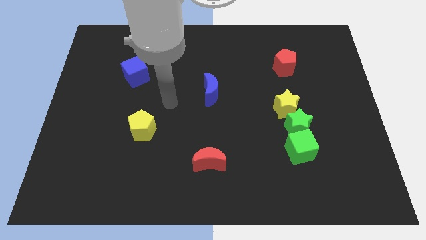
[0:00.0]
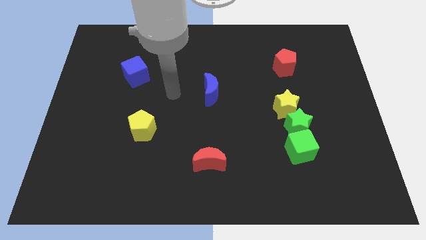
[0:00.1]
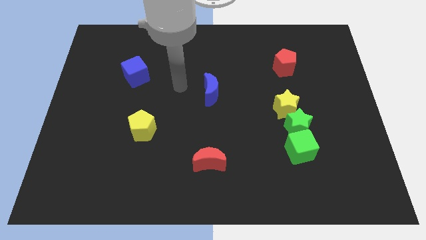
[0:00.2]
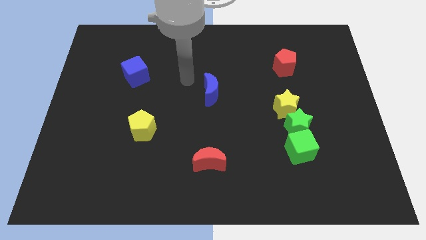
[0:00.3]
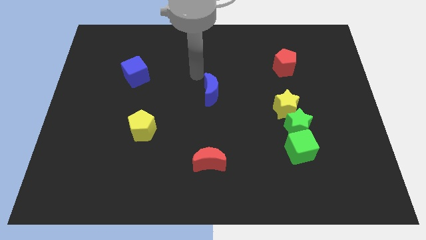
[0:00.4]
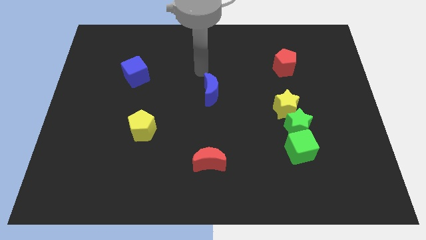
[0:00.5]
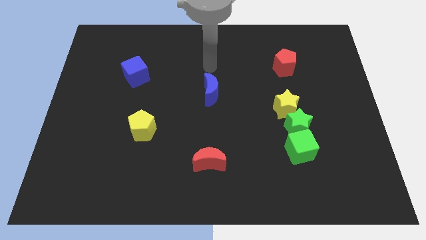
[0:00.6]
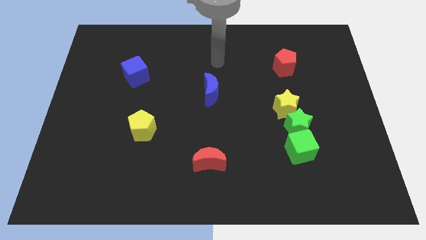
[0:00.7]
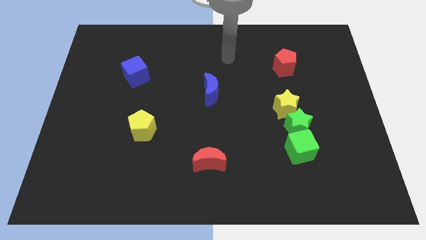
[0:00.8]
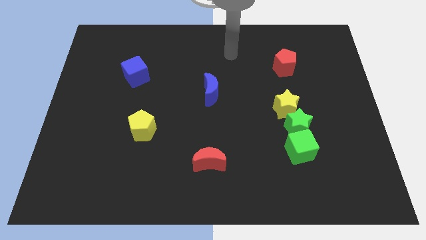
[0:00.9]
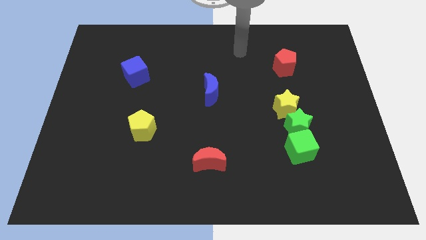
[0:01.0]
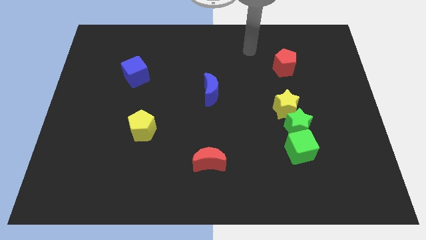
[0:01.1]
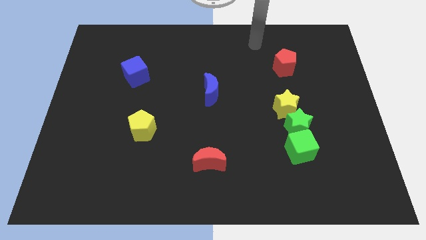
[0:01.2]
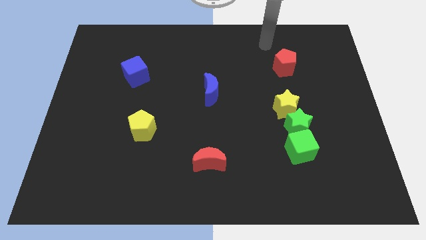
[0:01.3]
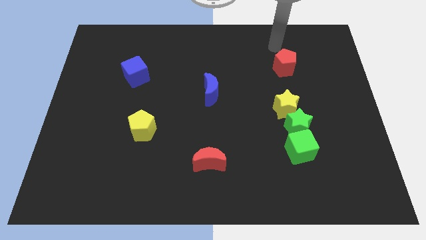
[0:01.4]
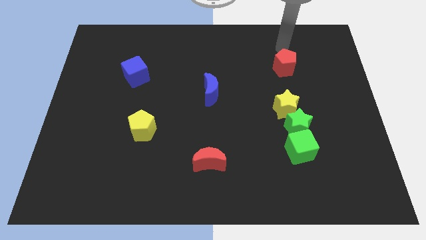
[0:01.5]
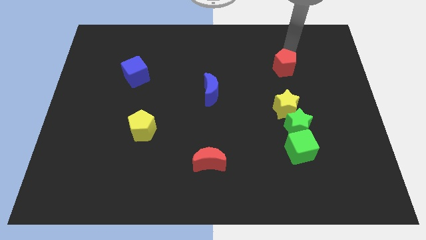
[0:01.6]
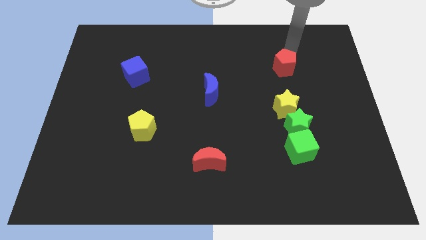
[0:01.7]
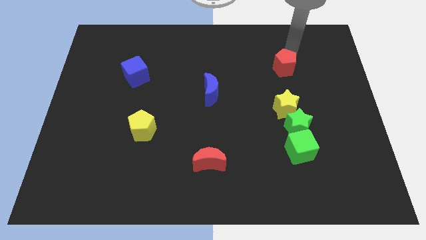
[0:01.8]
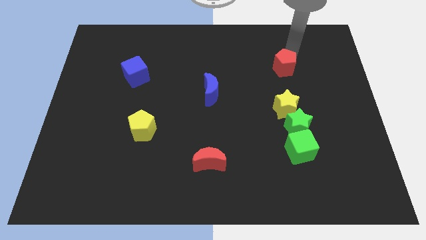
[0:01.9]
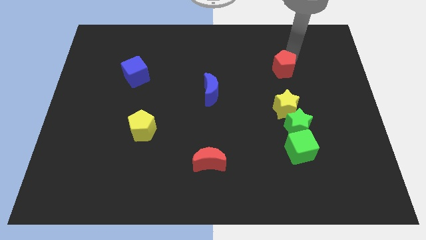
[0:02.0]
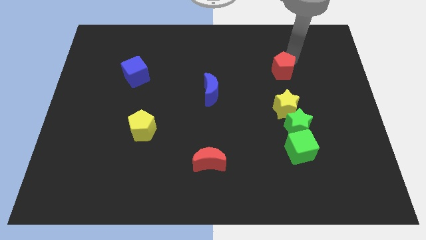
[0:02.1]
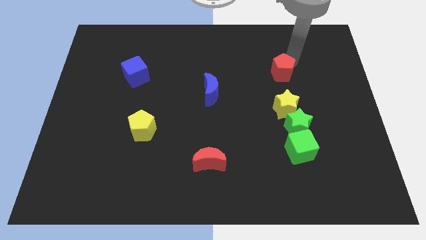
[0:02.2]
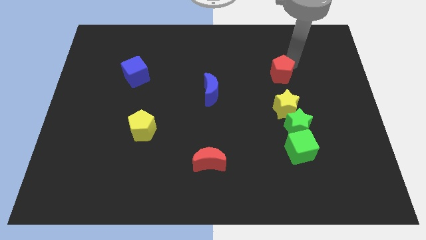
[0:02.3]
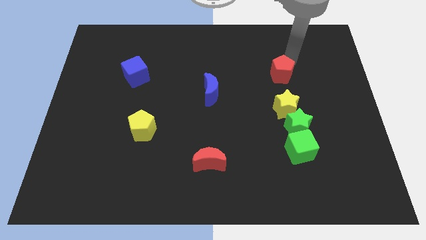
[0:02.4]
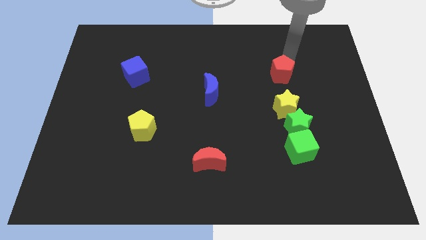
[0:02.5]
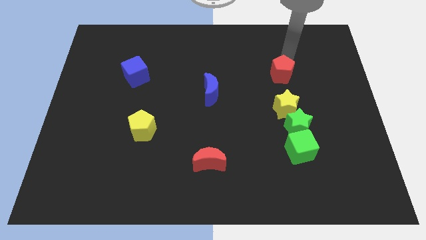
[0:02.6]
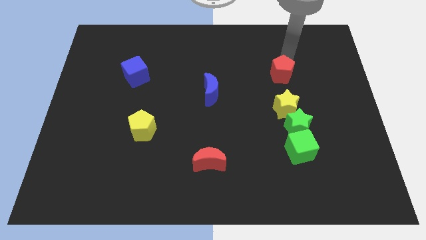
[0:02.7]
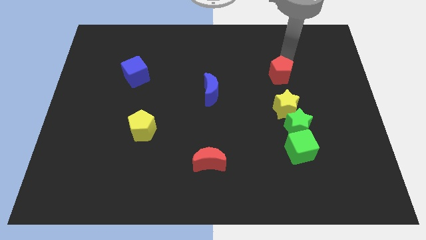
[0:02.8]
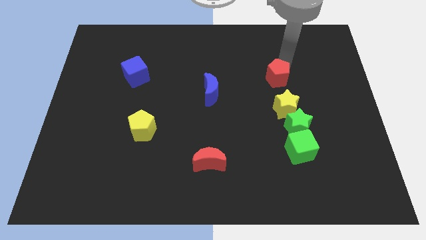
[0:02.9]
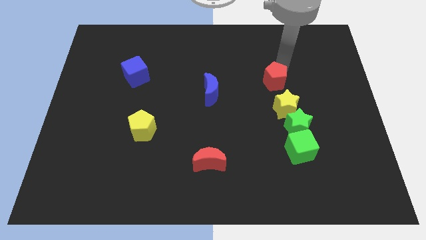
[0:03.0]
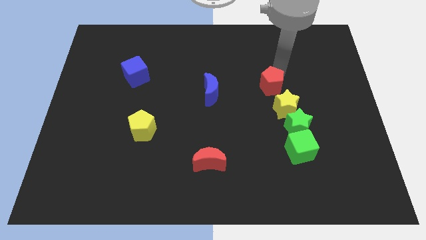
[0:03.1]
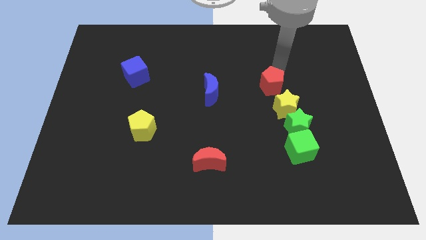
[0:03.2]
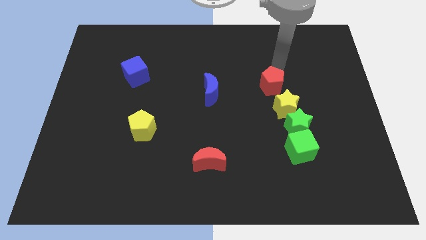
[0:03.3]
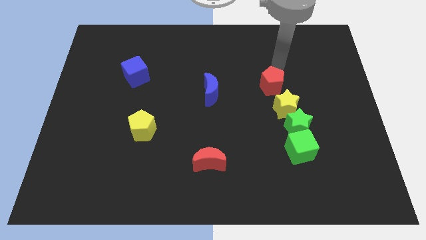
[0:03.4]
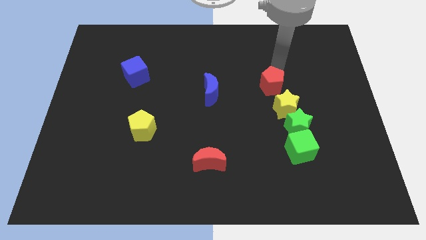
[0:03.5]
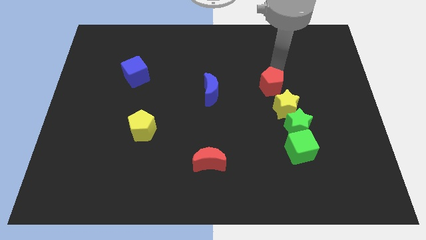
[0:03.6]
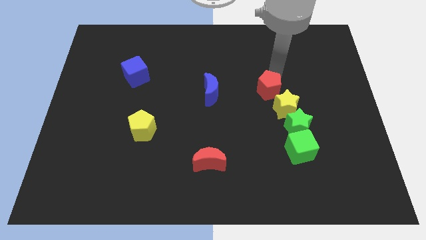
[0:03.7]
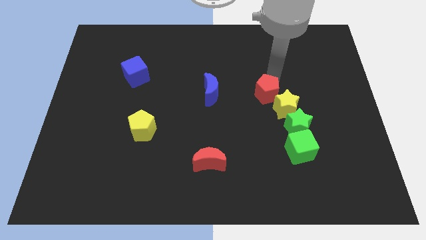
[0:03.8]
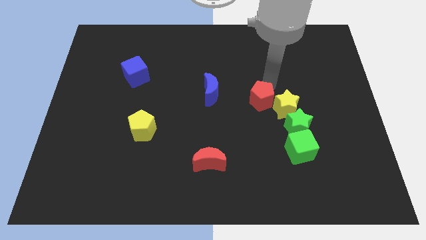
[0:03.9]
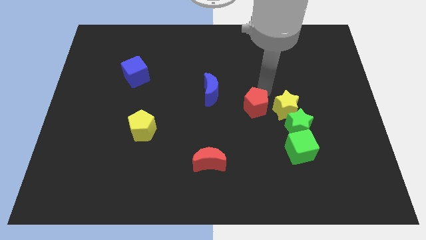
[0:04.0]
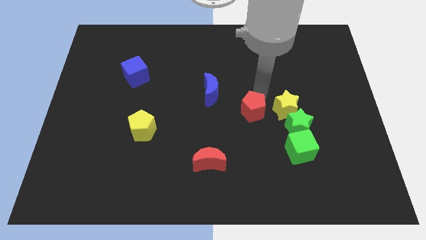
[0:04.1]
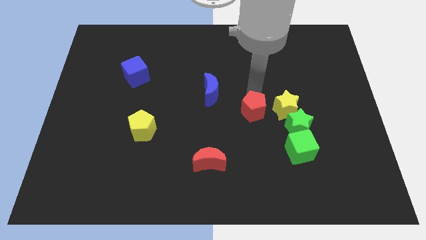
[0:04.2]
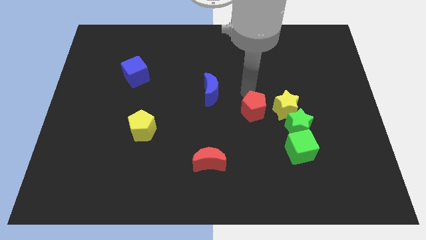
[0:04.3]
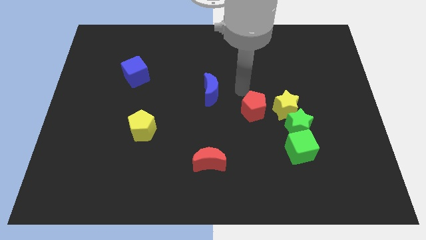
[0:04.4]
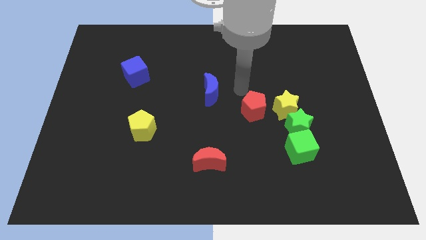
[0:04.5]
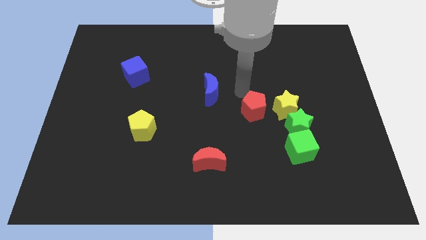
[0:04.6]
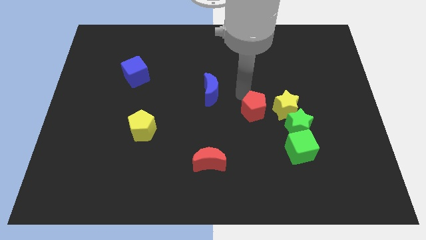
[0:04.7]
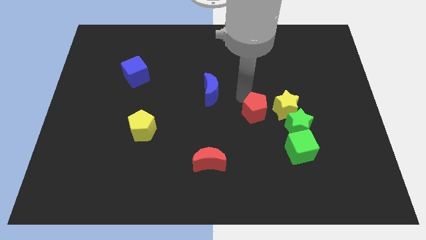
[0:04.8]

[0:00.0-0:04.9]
slide the red pentagon to the bottom left side of the yellow star

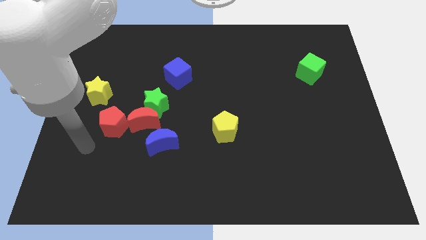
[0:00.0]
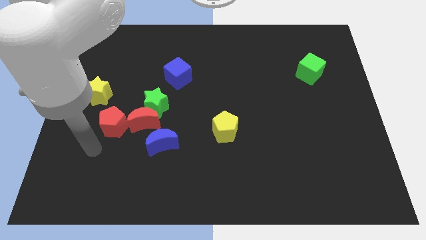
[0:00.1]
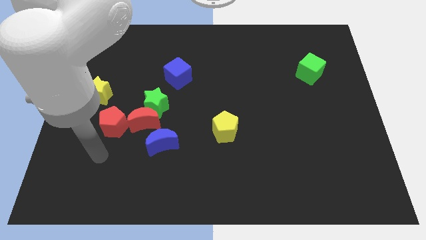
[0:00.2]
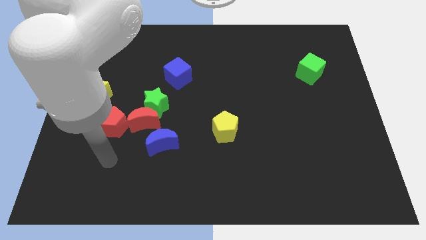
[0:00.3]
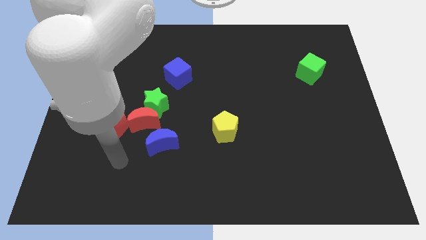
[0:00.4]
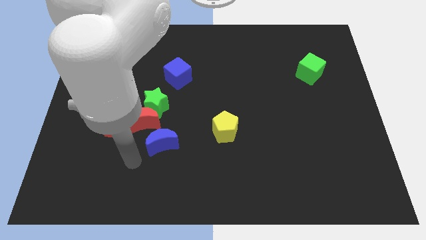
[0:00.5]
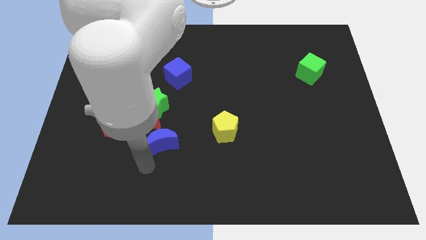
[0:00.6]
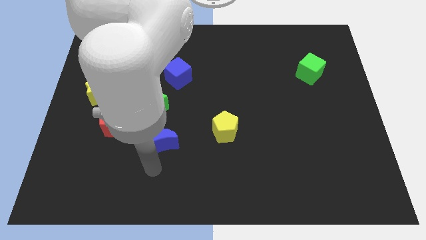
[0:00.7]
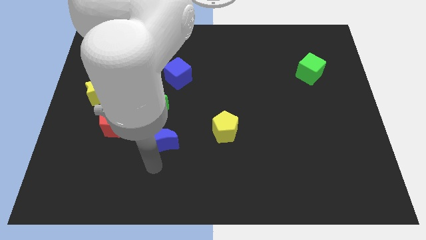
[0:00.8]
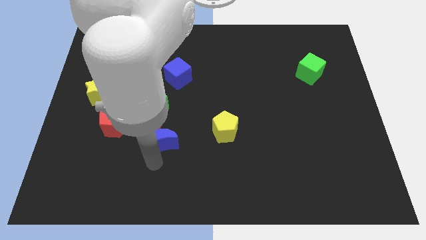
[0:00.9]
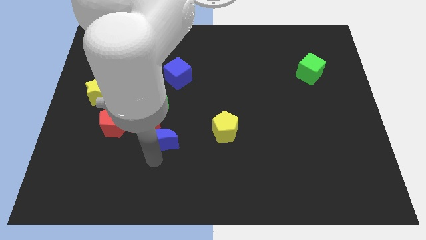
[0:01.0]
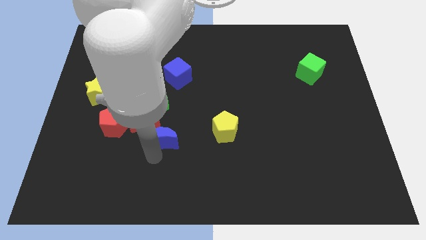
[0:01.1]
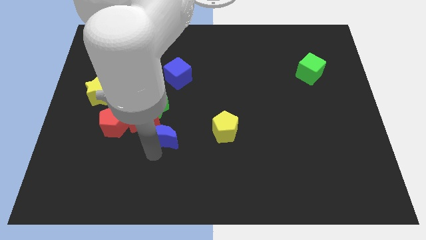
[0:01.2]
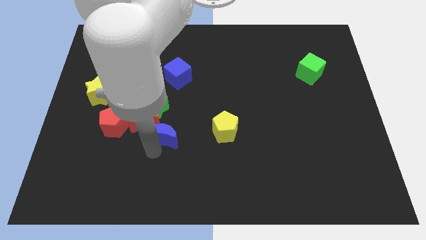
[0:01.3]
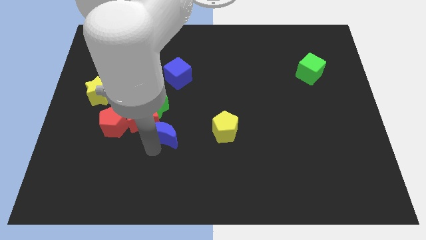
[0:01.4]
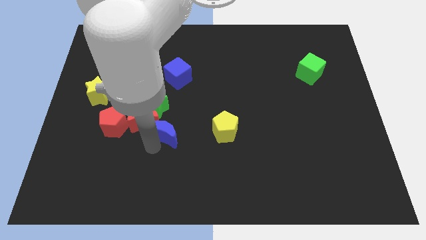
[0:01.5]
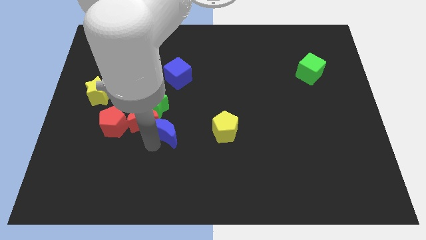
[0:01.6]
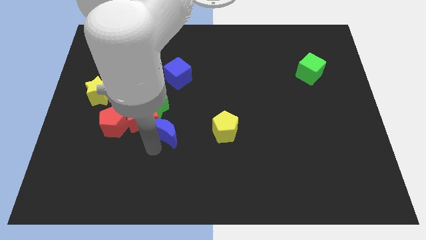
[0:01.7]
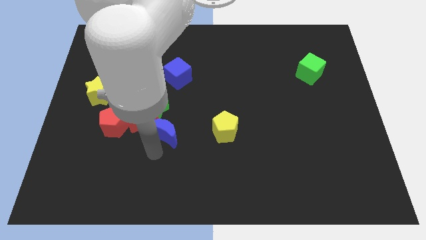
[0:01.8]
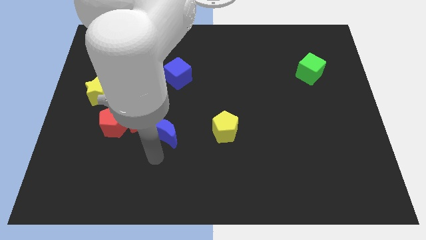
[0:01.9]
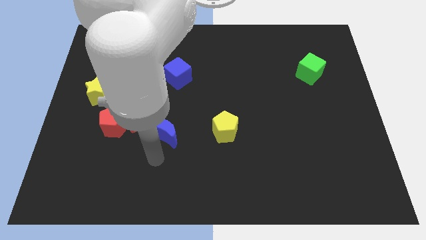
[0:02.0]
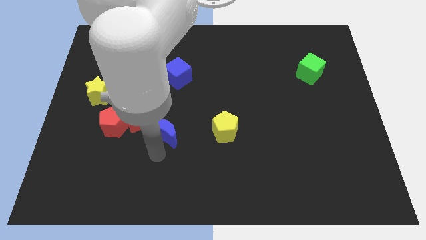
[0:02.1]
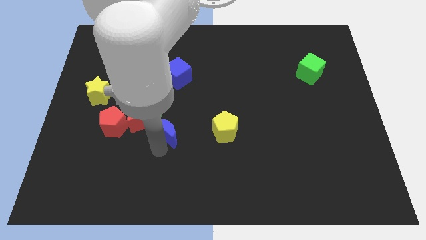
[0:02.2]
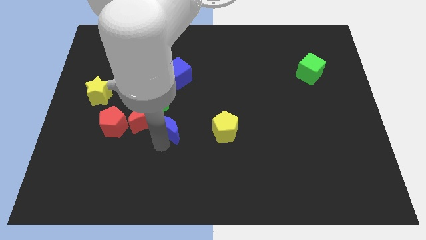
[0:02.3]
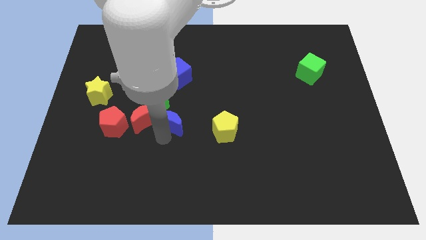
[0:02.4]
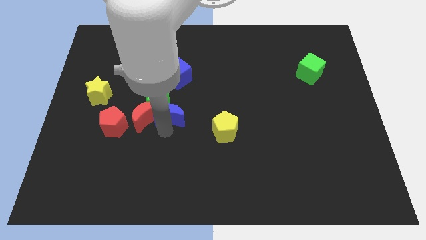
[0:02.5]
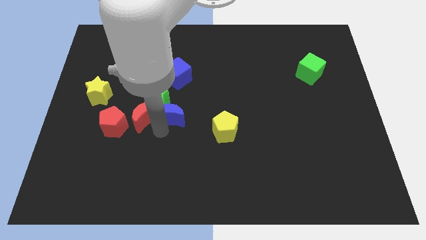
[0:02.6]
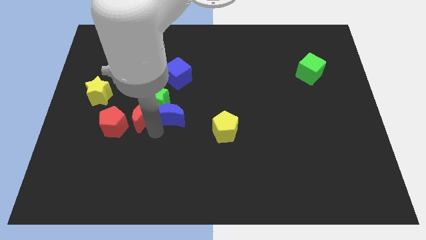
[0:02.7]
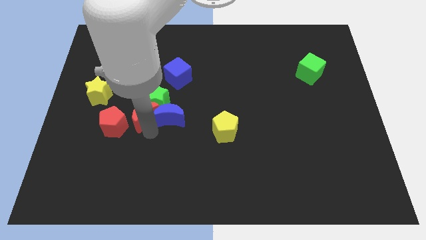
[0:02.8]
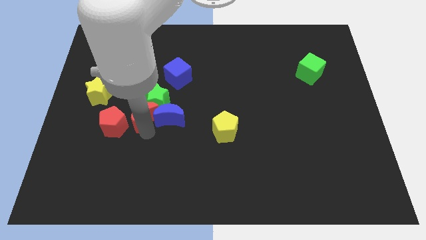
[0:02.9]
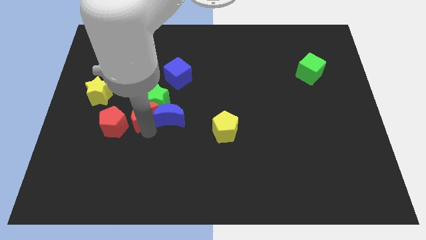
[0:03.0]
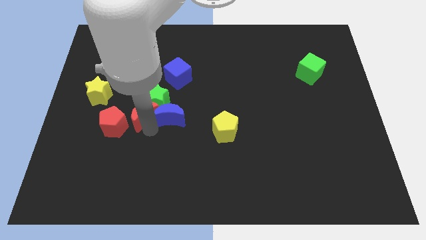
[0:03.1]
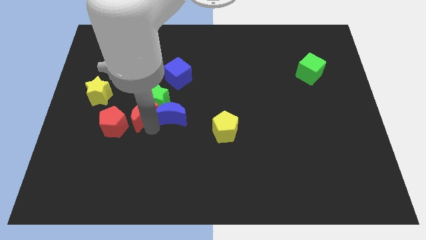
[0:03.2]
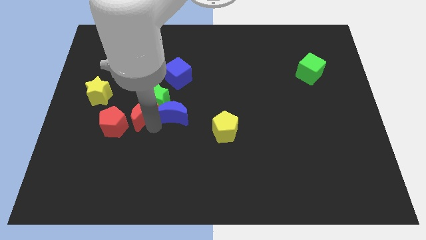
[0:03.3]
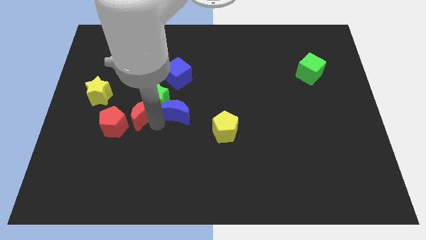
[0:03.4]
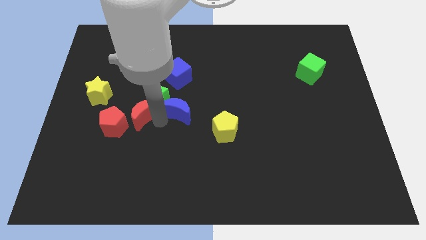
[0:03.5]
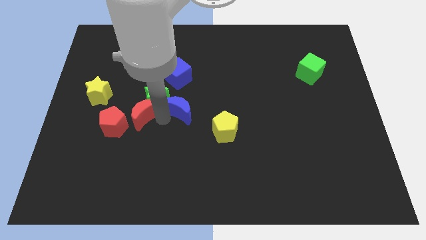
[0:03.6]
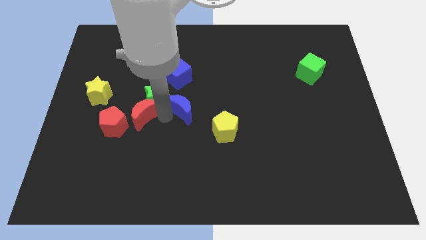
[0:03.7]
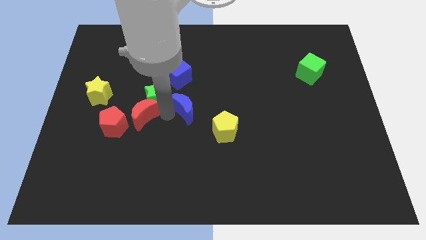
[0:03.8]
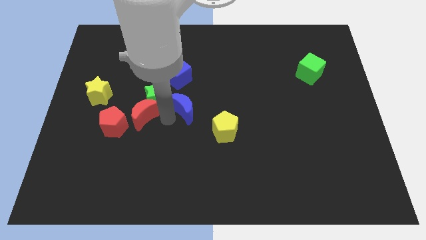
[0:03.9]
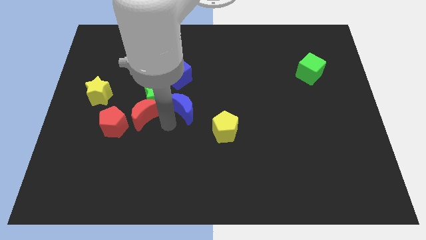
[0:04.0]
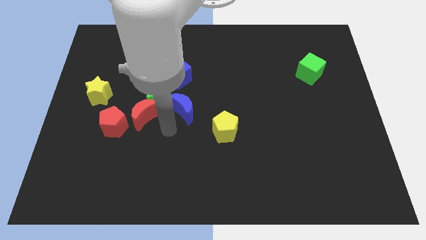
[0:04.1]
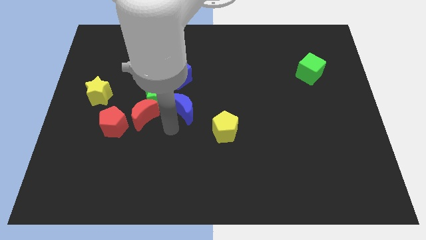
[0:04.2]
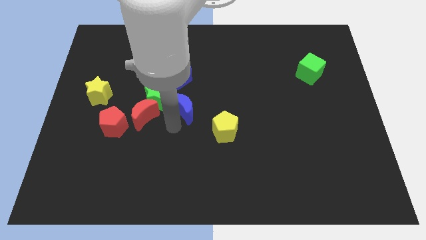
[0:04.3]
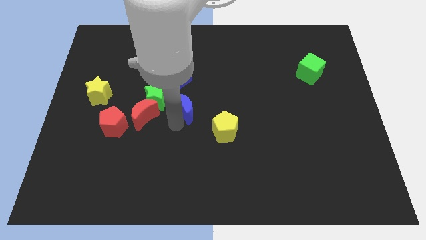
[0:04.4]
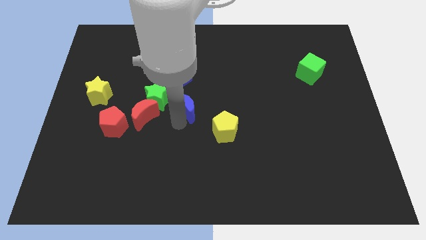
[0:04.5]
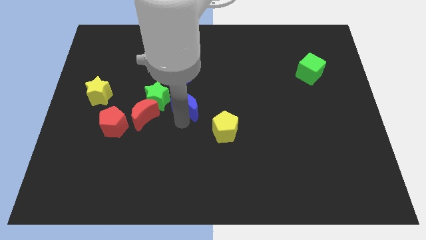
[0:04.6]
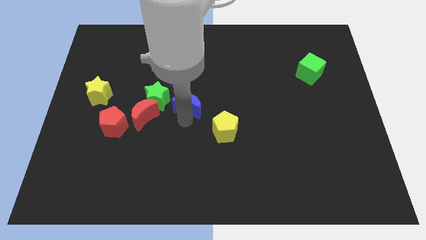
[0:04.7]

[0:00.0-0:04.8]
push the blue moon to the bottom right of the blue cube
